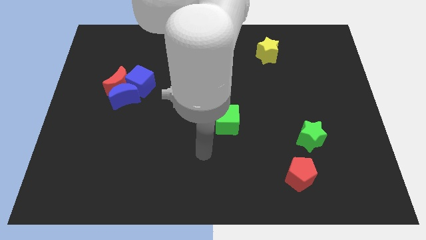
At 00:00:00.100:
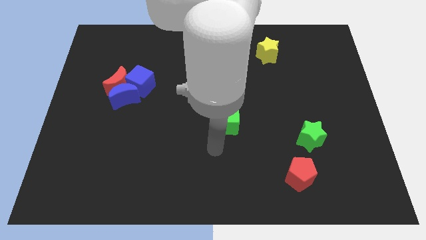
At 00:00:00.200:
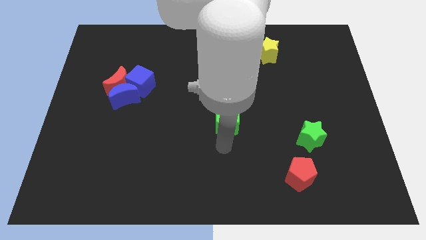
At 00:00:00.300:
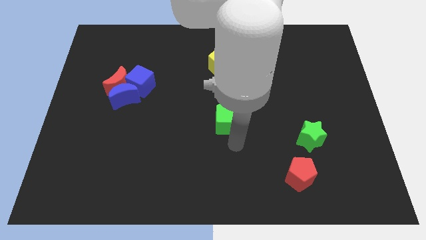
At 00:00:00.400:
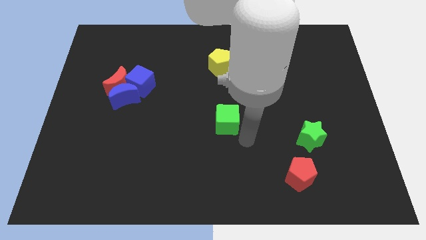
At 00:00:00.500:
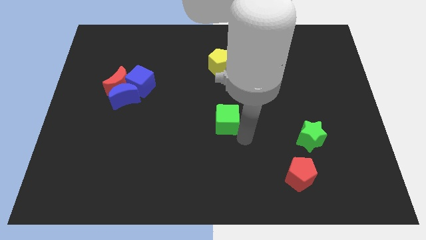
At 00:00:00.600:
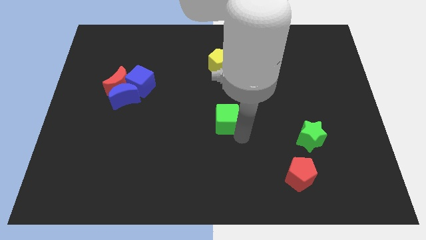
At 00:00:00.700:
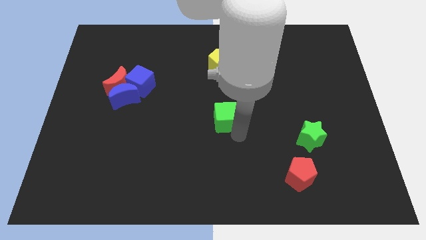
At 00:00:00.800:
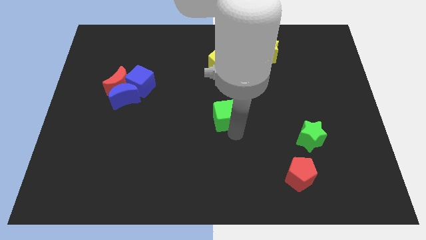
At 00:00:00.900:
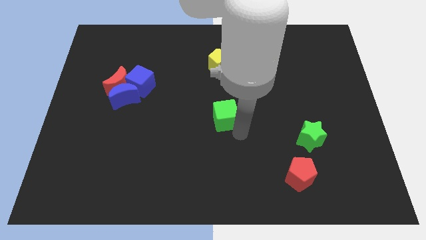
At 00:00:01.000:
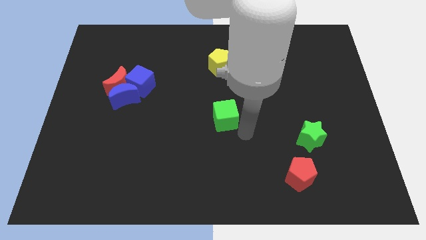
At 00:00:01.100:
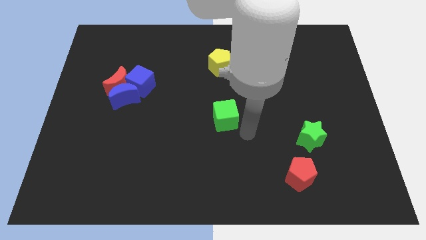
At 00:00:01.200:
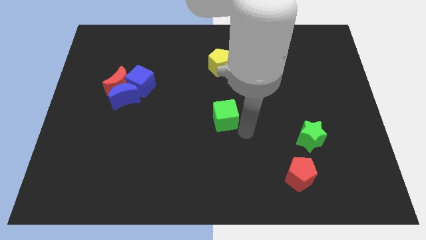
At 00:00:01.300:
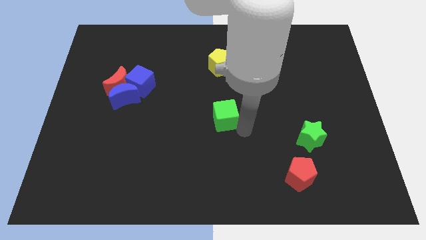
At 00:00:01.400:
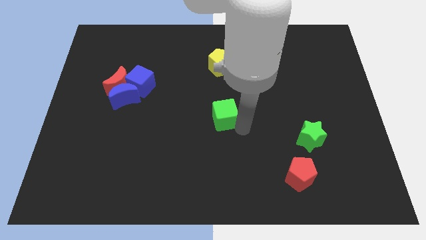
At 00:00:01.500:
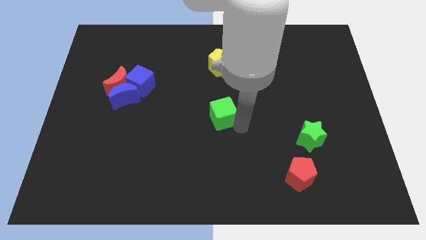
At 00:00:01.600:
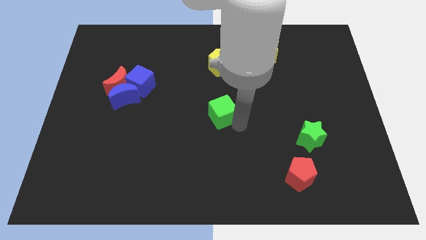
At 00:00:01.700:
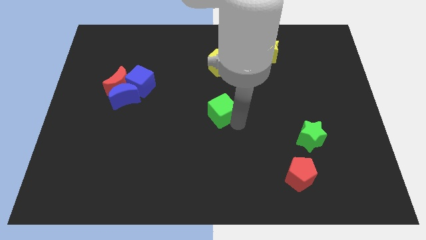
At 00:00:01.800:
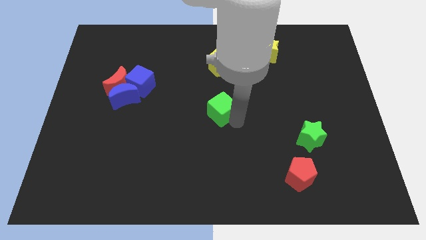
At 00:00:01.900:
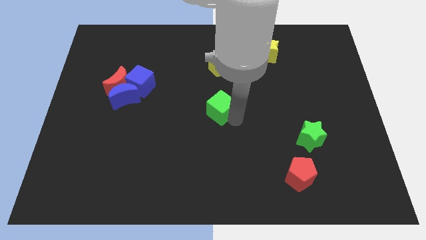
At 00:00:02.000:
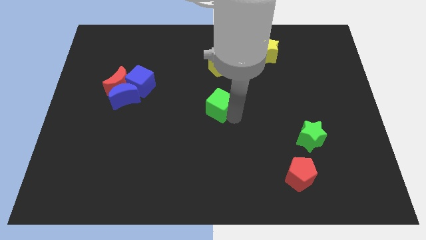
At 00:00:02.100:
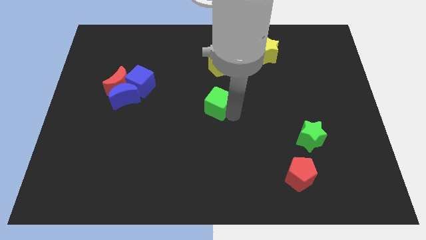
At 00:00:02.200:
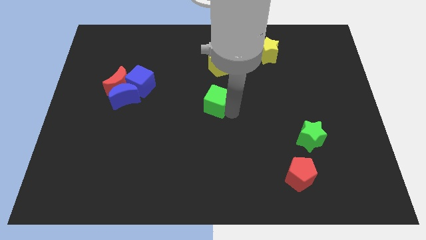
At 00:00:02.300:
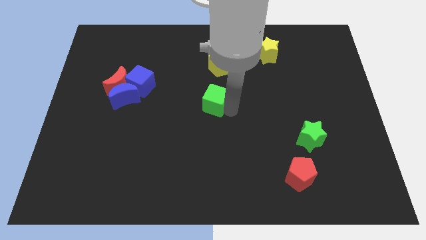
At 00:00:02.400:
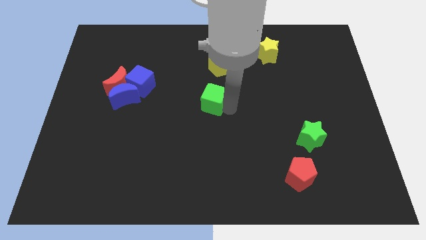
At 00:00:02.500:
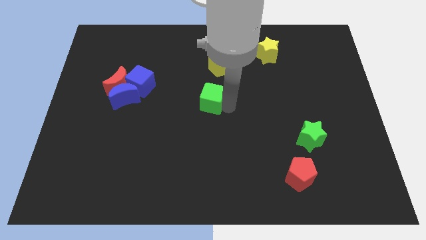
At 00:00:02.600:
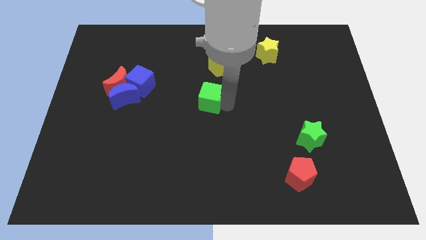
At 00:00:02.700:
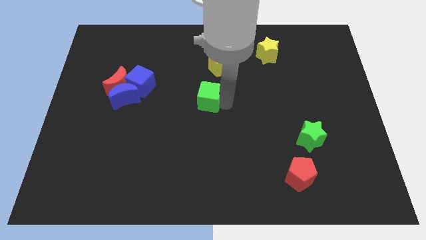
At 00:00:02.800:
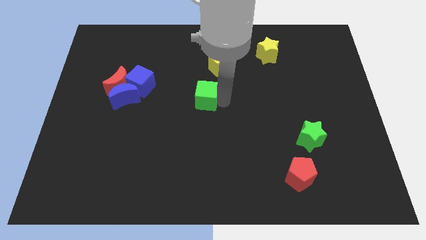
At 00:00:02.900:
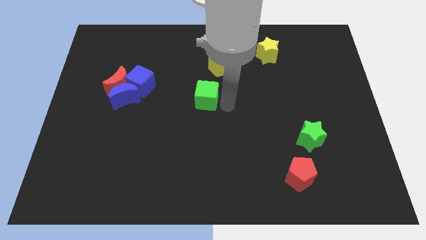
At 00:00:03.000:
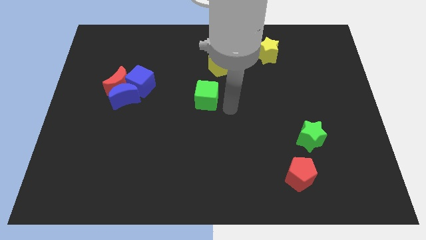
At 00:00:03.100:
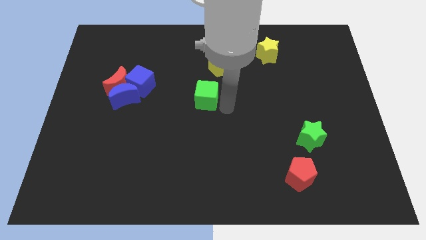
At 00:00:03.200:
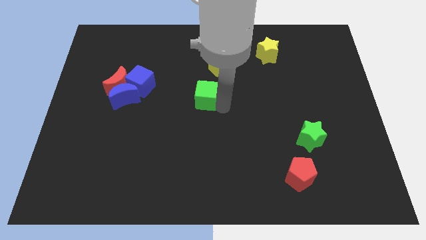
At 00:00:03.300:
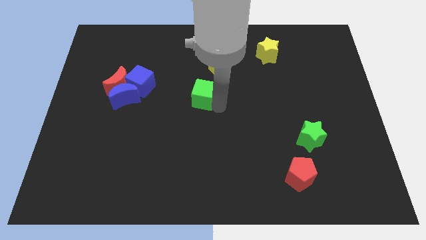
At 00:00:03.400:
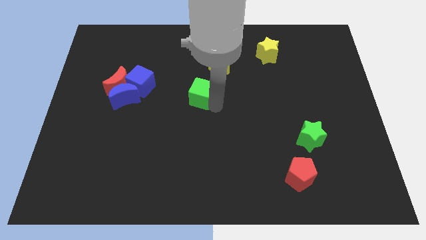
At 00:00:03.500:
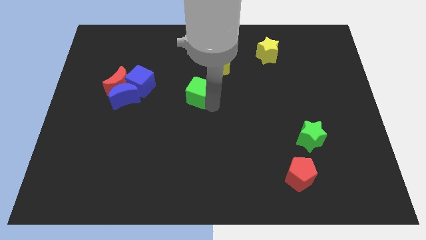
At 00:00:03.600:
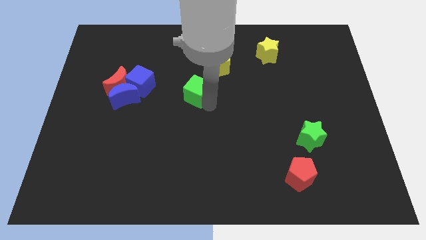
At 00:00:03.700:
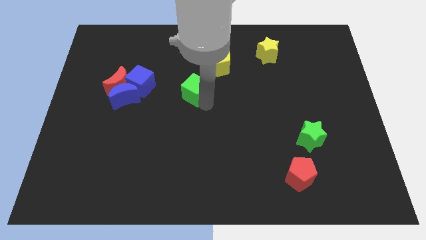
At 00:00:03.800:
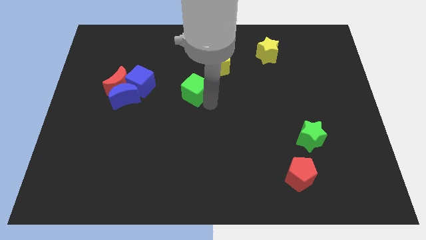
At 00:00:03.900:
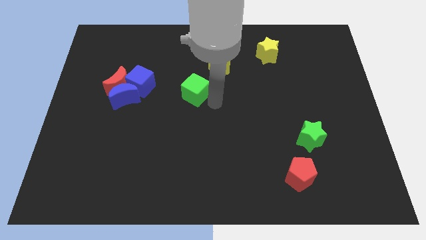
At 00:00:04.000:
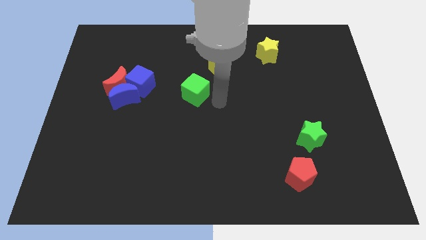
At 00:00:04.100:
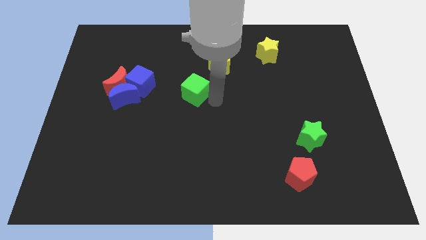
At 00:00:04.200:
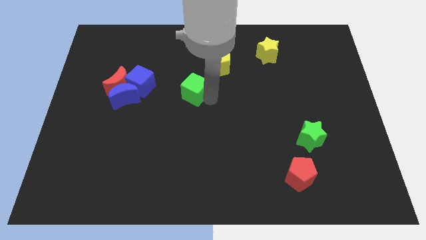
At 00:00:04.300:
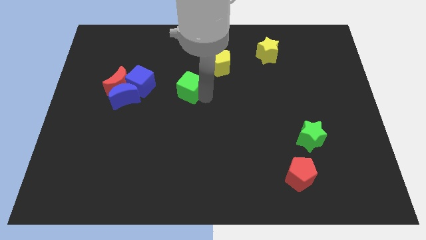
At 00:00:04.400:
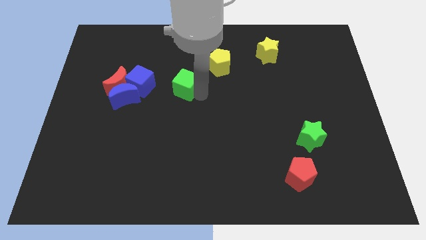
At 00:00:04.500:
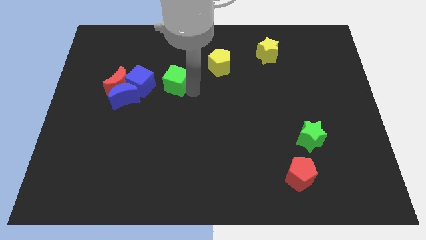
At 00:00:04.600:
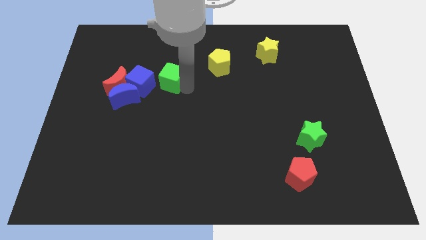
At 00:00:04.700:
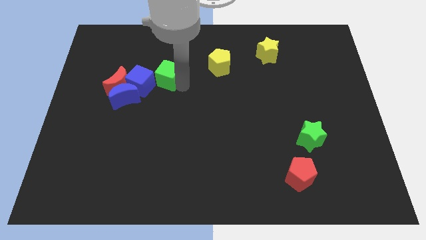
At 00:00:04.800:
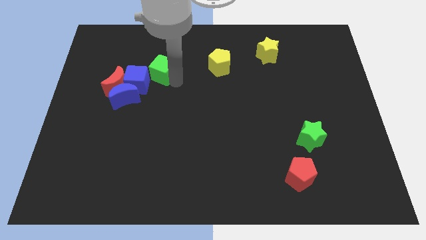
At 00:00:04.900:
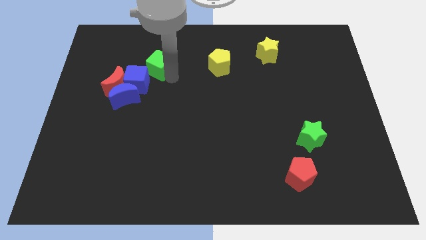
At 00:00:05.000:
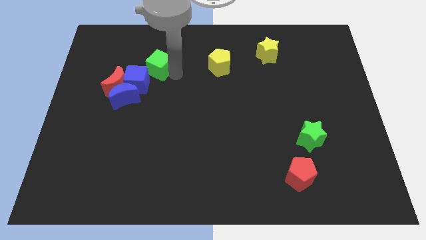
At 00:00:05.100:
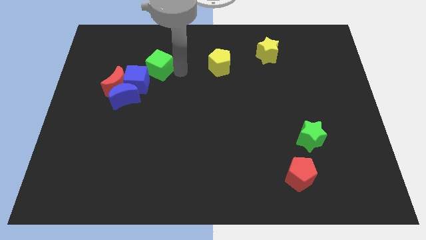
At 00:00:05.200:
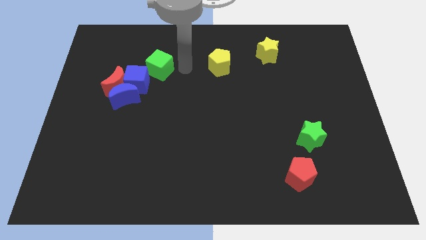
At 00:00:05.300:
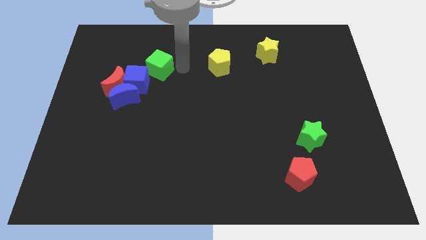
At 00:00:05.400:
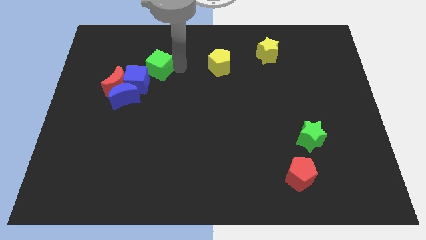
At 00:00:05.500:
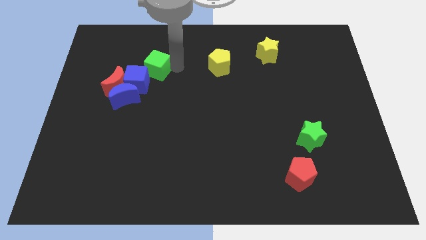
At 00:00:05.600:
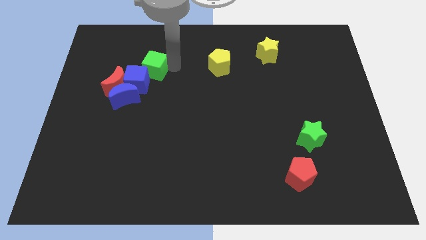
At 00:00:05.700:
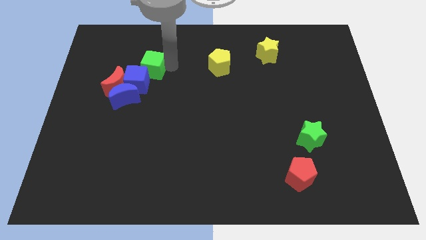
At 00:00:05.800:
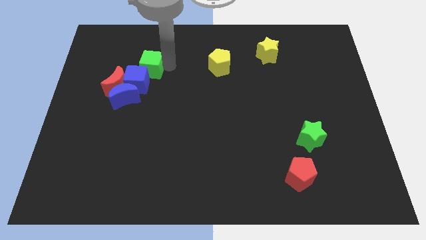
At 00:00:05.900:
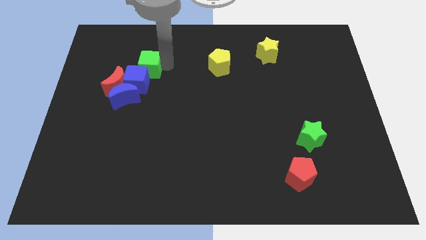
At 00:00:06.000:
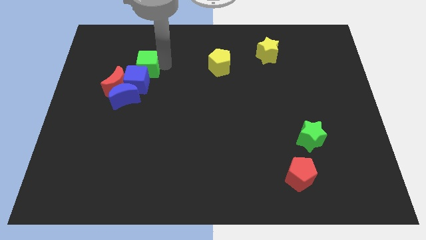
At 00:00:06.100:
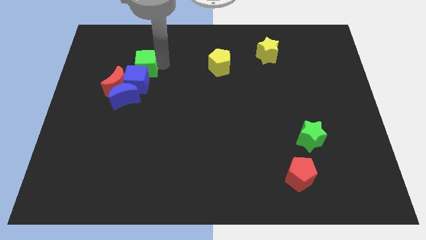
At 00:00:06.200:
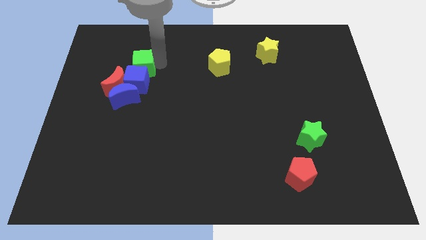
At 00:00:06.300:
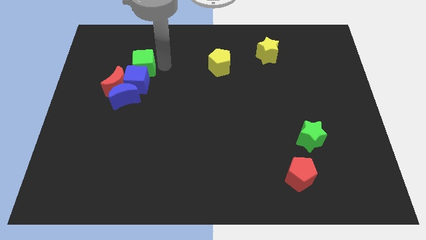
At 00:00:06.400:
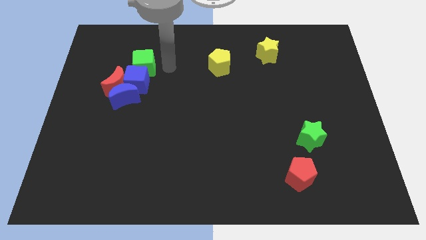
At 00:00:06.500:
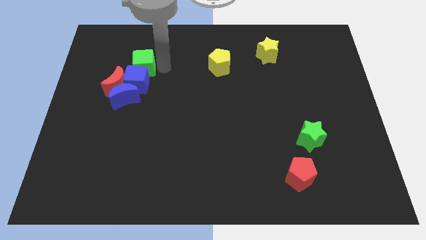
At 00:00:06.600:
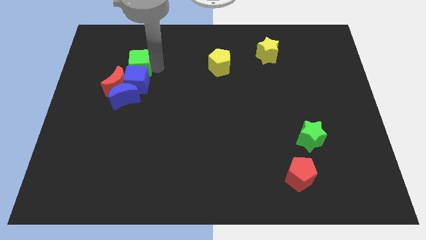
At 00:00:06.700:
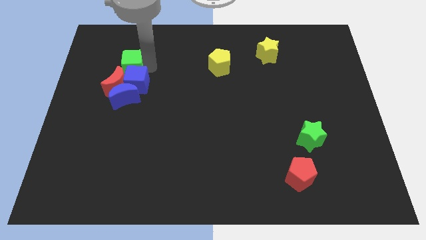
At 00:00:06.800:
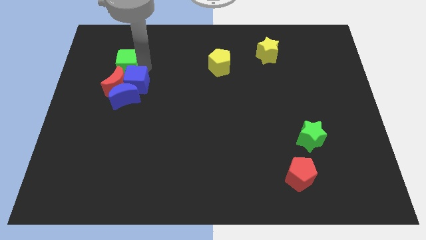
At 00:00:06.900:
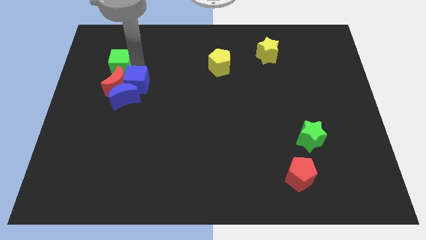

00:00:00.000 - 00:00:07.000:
put the green cube to the top left side of the red moon
